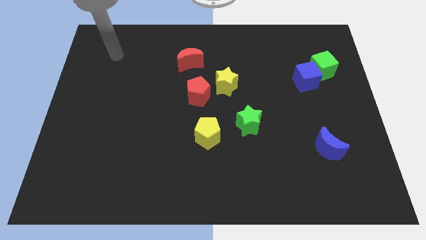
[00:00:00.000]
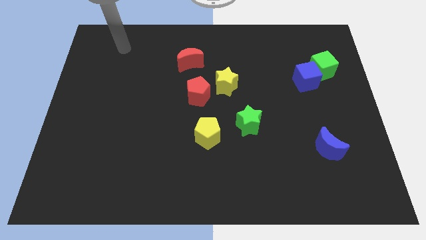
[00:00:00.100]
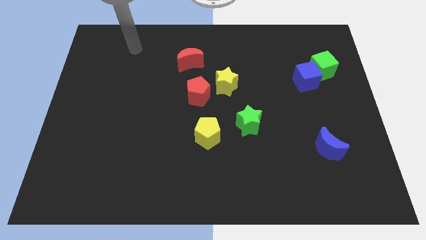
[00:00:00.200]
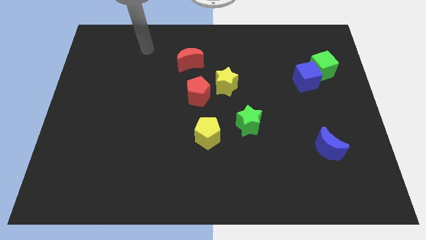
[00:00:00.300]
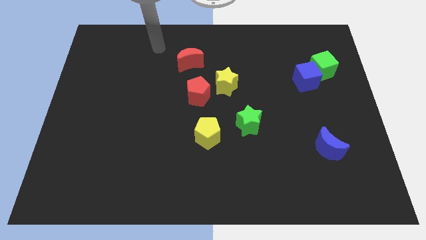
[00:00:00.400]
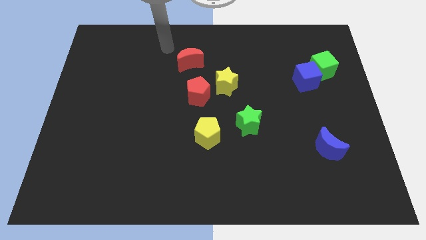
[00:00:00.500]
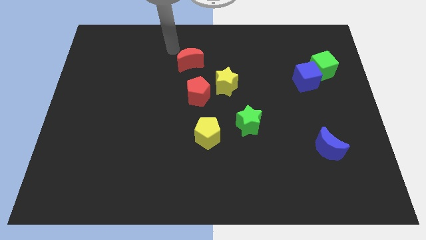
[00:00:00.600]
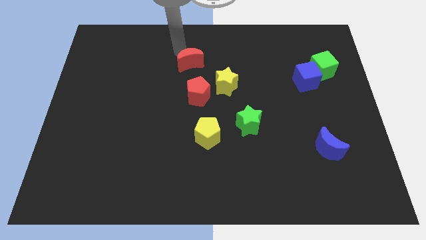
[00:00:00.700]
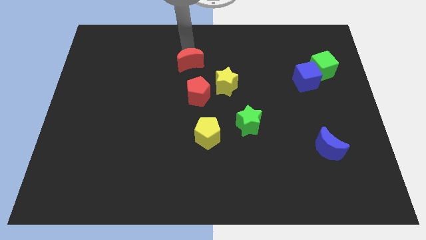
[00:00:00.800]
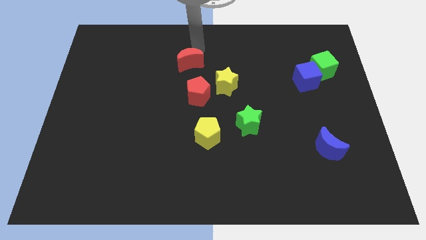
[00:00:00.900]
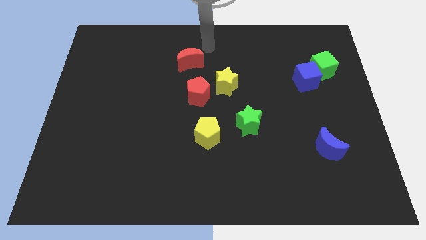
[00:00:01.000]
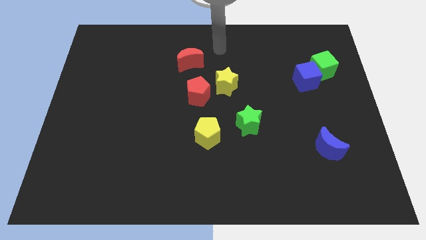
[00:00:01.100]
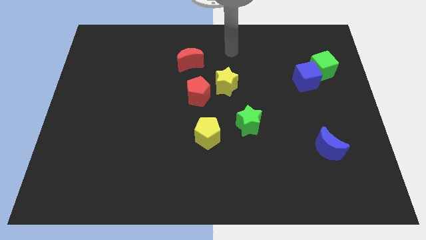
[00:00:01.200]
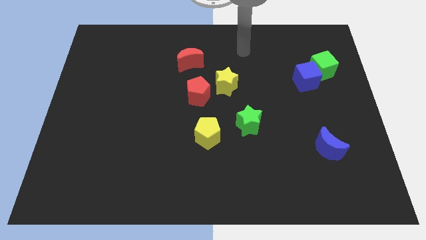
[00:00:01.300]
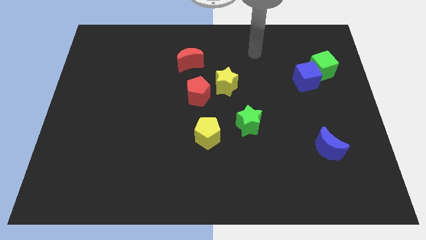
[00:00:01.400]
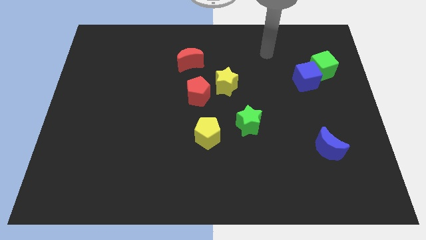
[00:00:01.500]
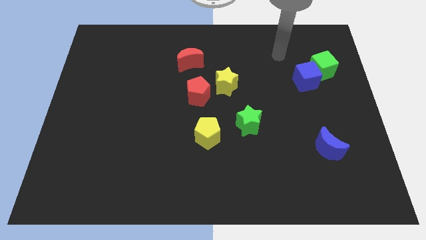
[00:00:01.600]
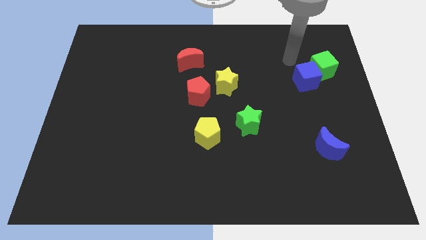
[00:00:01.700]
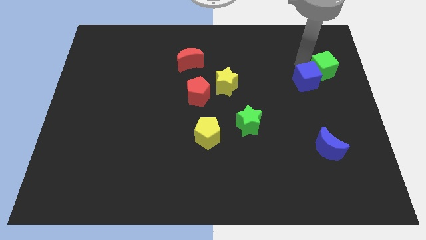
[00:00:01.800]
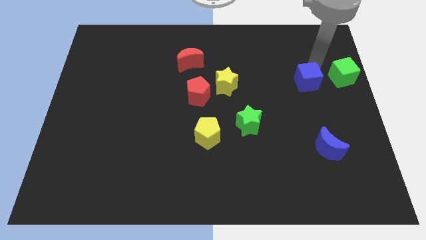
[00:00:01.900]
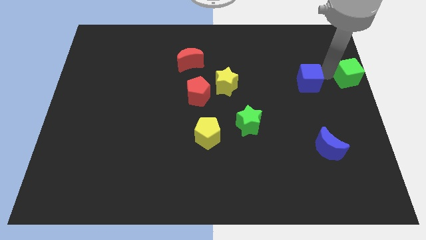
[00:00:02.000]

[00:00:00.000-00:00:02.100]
move the blue cube away from the green cube

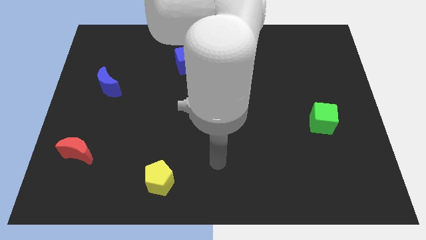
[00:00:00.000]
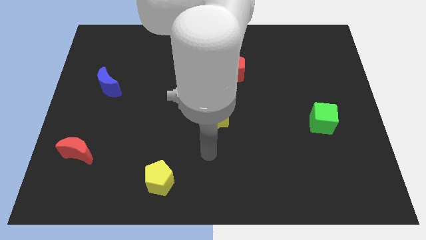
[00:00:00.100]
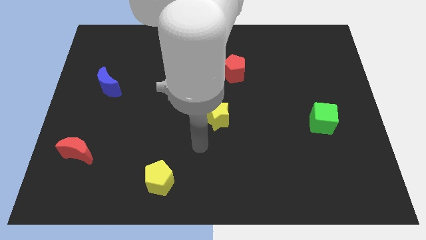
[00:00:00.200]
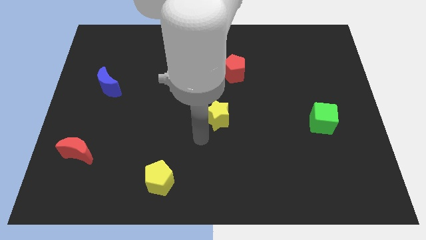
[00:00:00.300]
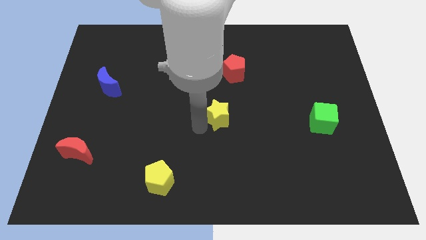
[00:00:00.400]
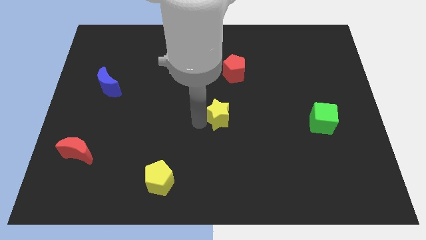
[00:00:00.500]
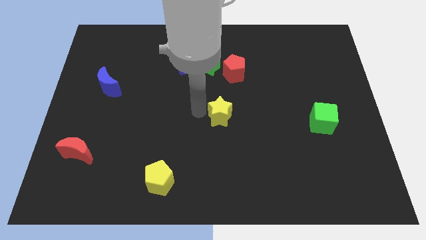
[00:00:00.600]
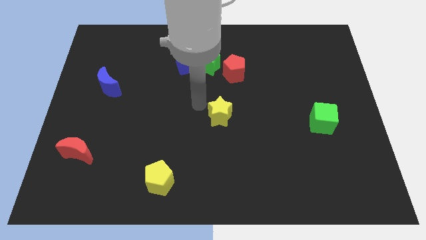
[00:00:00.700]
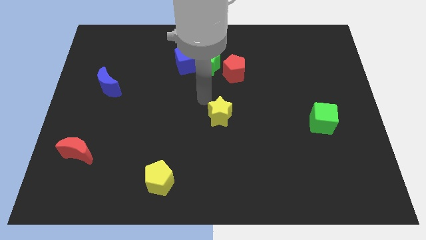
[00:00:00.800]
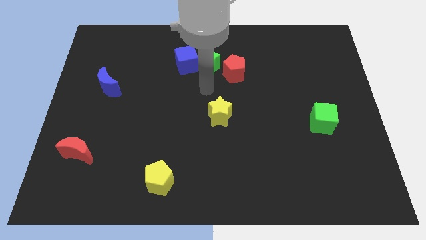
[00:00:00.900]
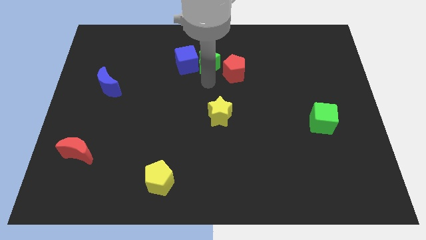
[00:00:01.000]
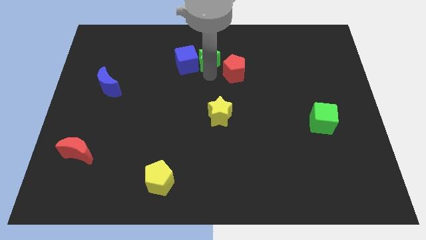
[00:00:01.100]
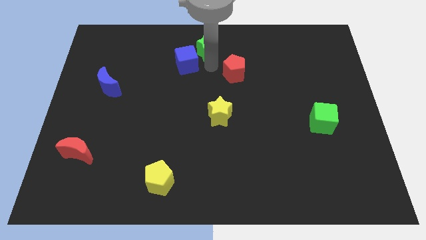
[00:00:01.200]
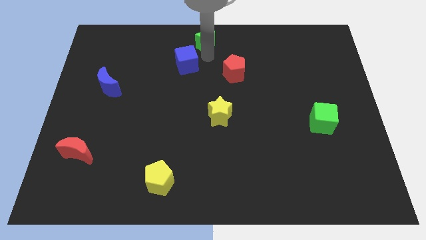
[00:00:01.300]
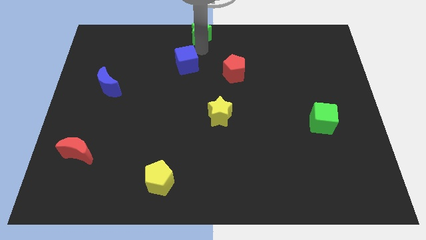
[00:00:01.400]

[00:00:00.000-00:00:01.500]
pull the blue cube apart from the green star

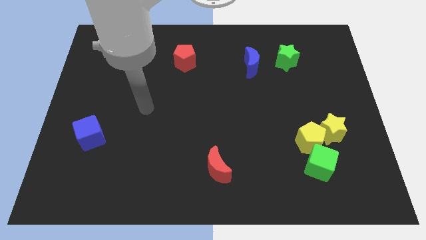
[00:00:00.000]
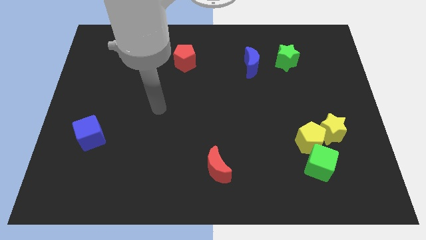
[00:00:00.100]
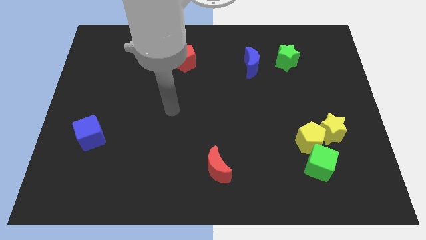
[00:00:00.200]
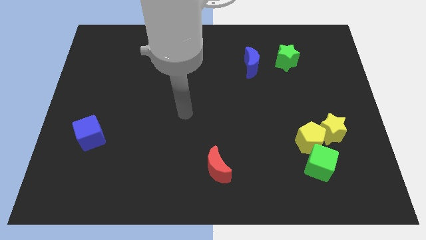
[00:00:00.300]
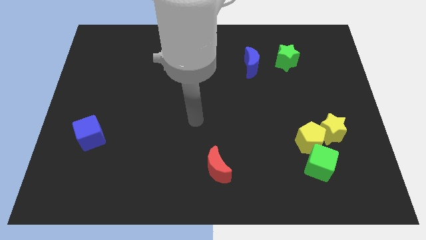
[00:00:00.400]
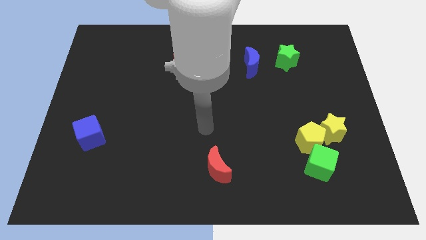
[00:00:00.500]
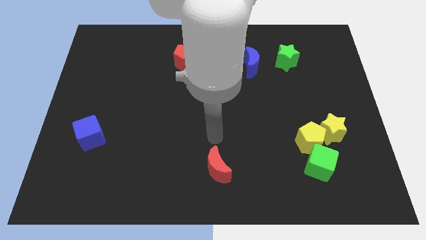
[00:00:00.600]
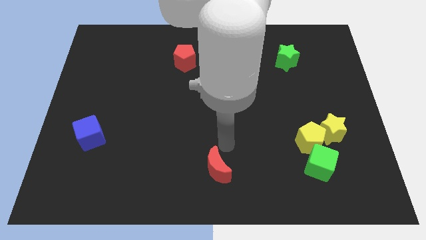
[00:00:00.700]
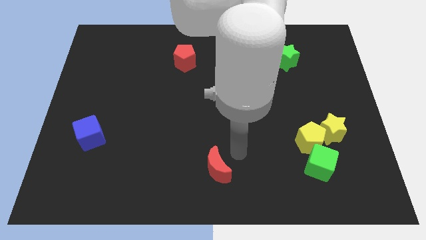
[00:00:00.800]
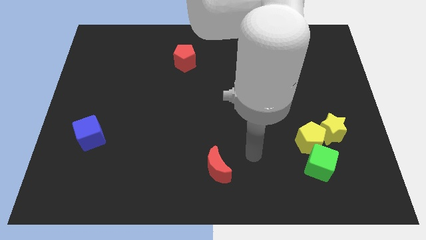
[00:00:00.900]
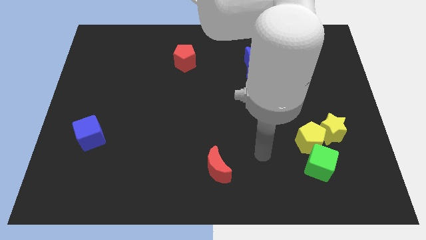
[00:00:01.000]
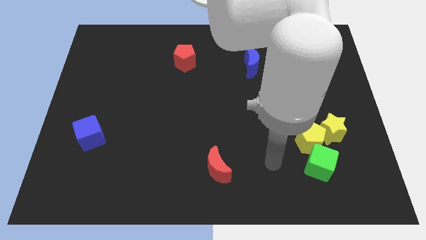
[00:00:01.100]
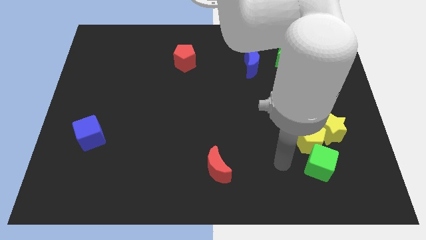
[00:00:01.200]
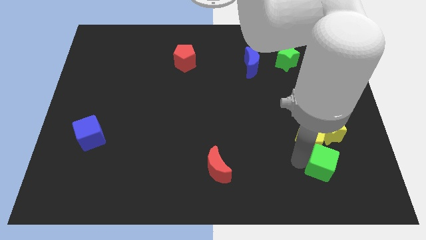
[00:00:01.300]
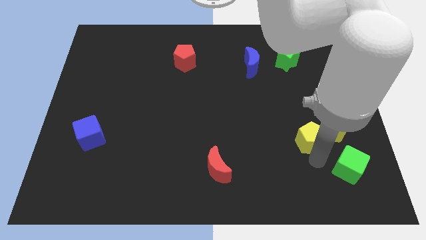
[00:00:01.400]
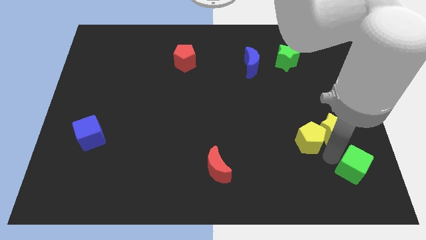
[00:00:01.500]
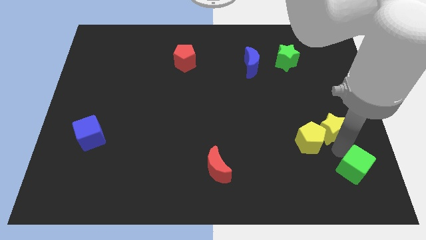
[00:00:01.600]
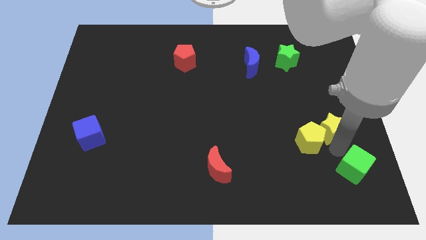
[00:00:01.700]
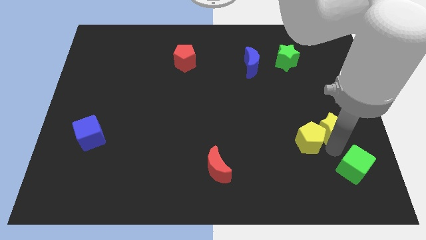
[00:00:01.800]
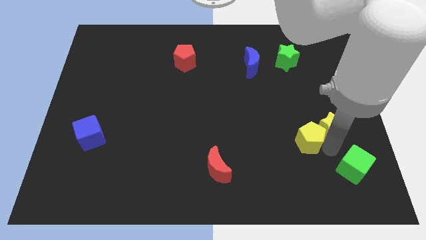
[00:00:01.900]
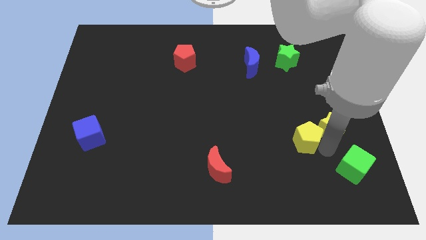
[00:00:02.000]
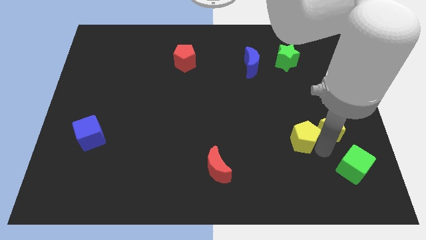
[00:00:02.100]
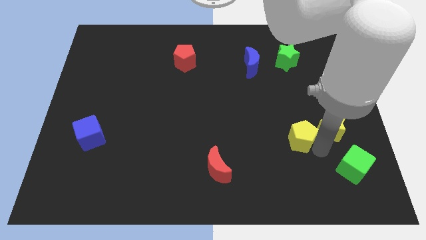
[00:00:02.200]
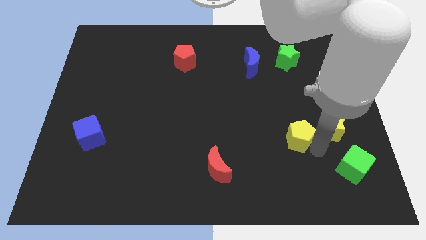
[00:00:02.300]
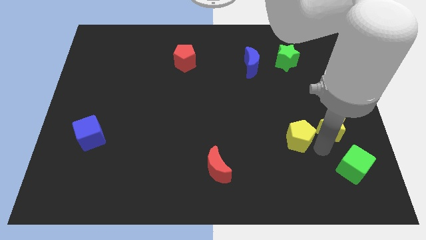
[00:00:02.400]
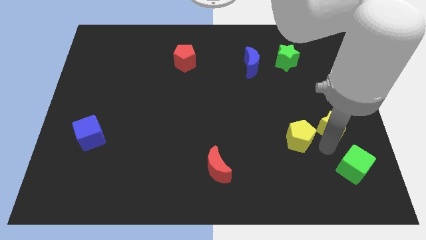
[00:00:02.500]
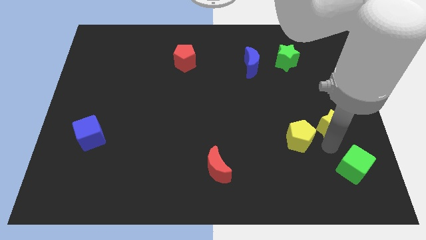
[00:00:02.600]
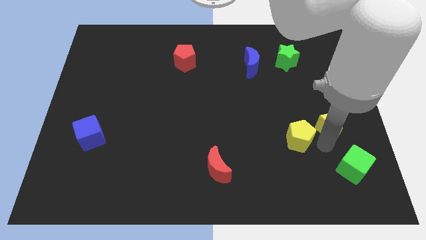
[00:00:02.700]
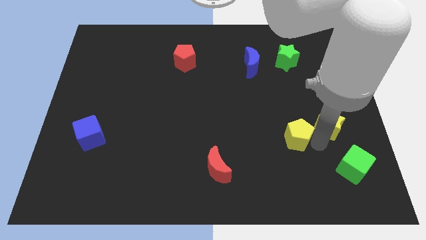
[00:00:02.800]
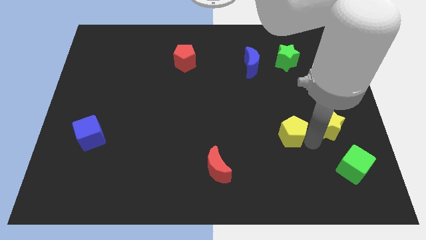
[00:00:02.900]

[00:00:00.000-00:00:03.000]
separate the yellow pentagon from the yellow star and green cube

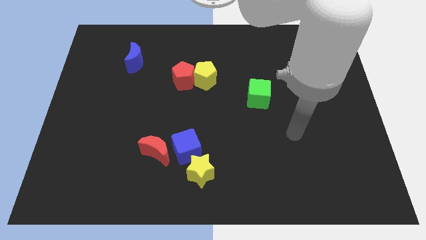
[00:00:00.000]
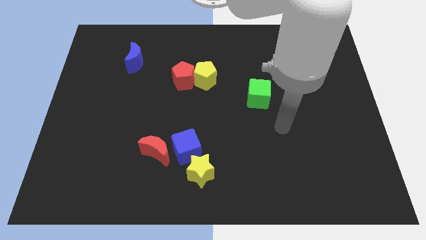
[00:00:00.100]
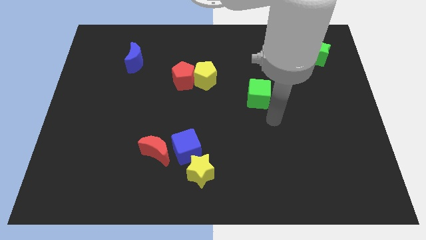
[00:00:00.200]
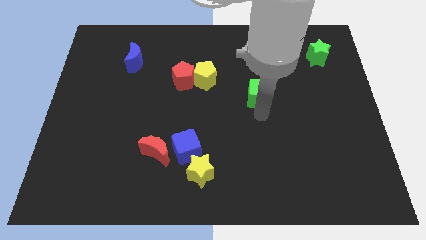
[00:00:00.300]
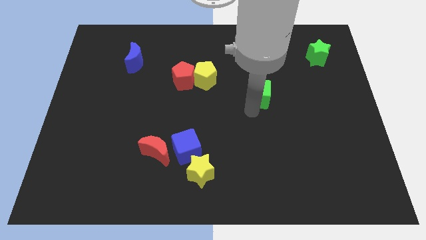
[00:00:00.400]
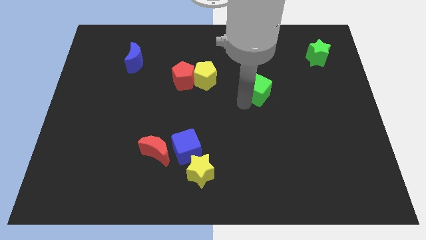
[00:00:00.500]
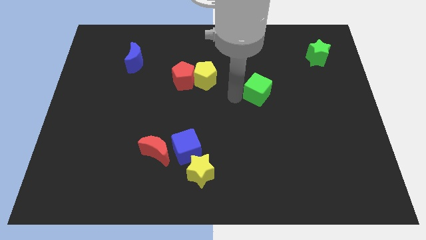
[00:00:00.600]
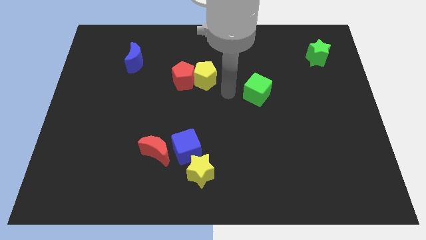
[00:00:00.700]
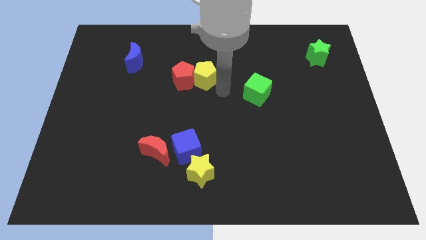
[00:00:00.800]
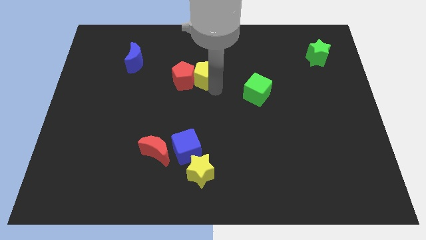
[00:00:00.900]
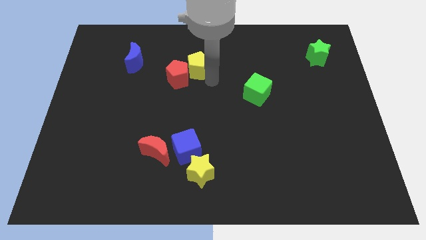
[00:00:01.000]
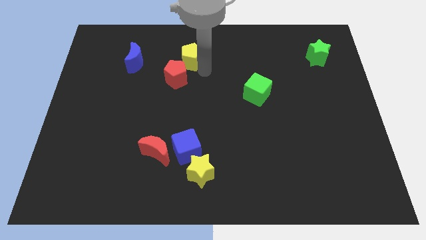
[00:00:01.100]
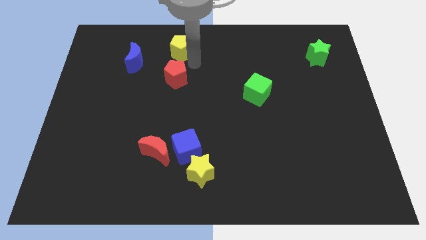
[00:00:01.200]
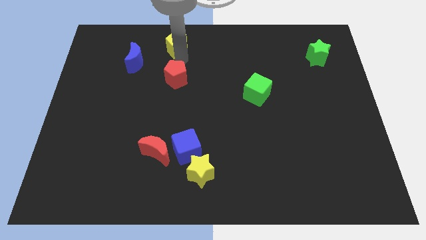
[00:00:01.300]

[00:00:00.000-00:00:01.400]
move the red pentagon away from the yellow pentagon

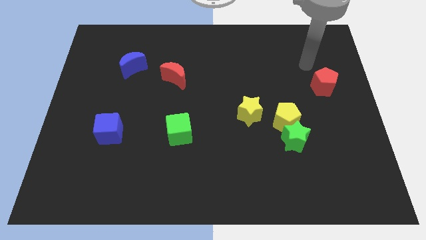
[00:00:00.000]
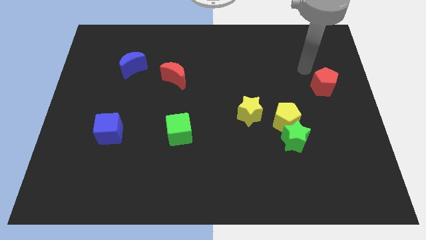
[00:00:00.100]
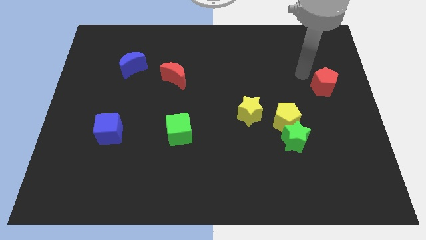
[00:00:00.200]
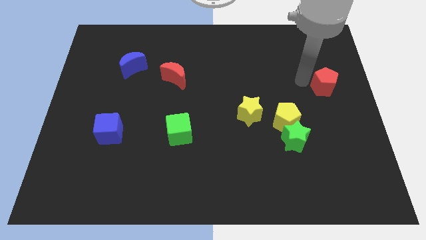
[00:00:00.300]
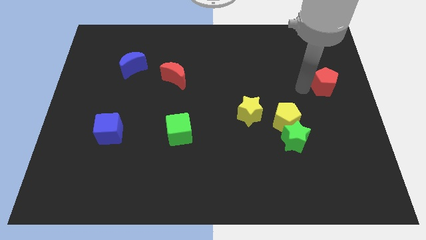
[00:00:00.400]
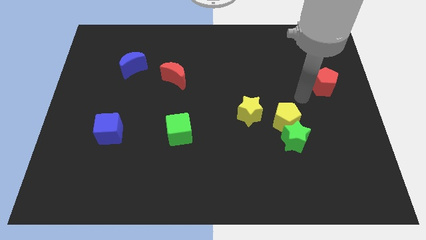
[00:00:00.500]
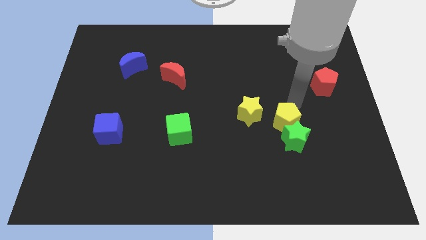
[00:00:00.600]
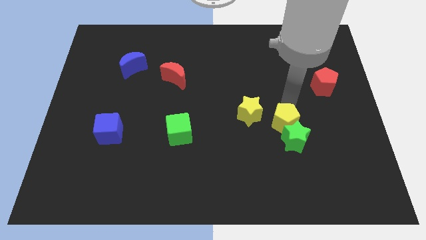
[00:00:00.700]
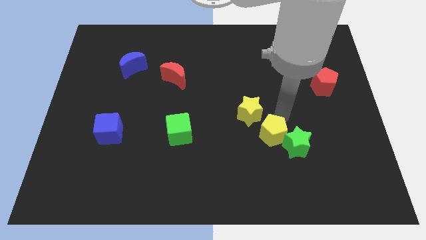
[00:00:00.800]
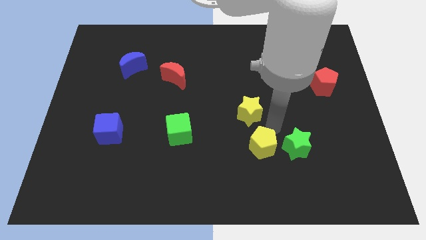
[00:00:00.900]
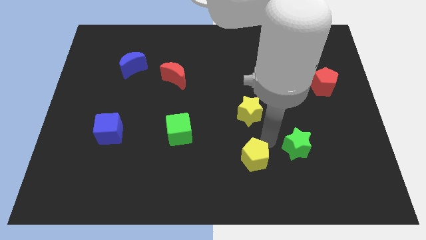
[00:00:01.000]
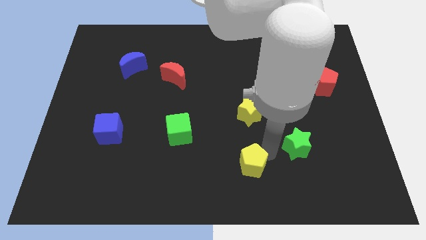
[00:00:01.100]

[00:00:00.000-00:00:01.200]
pull the green star apart from the yellow pentagon
